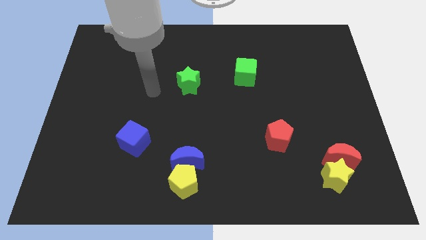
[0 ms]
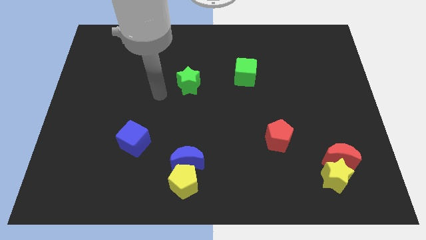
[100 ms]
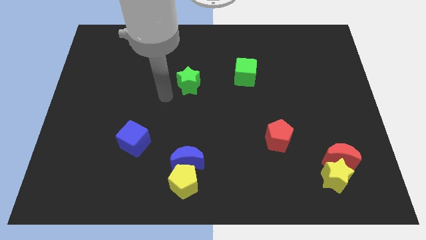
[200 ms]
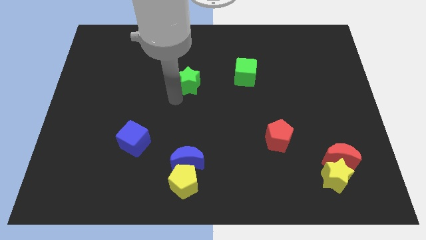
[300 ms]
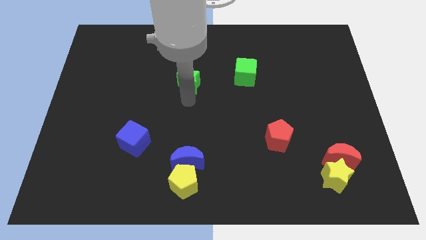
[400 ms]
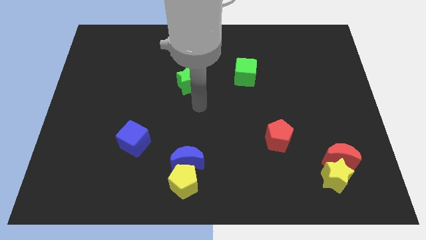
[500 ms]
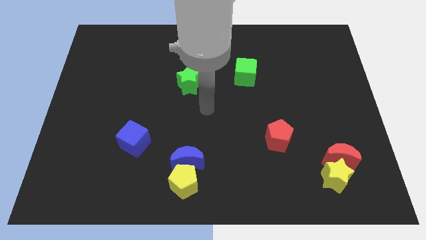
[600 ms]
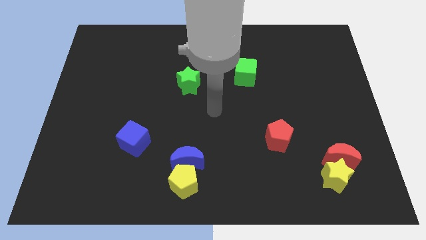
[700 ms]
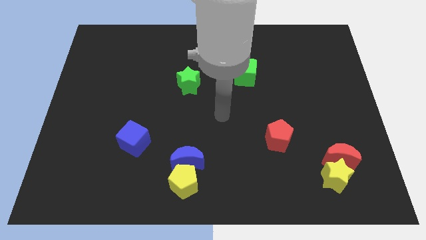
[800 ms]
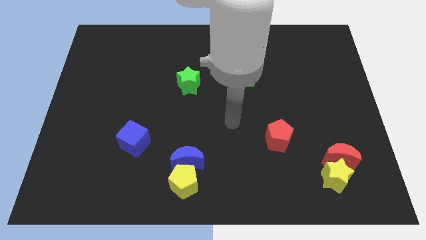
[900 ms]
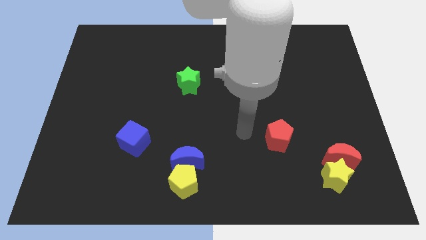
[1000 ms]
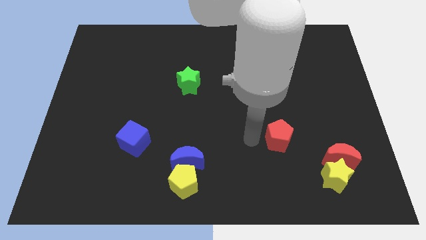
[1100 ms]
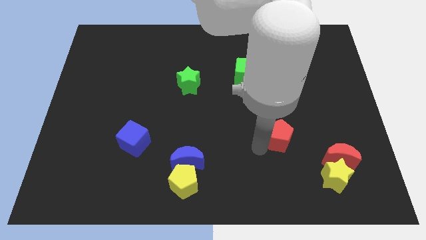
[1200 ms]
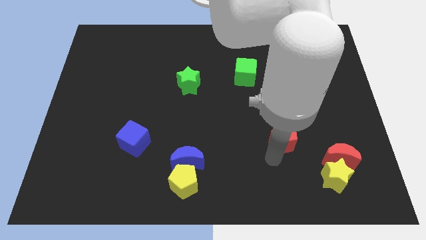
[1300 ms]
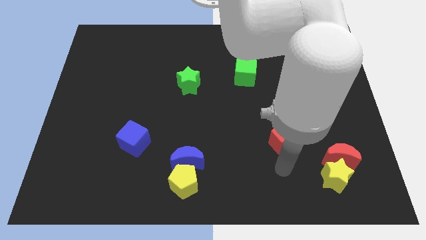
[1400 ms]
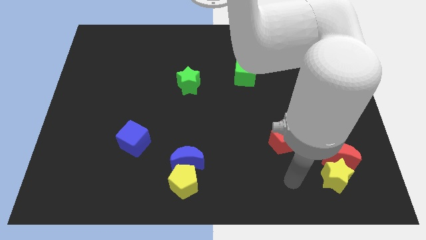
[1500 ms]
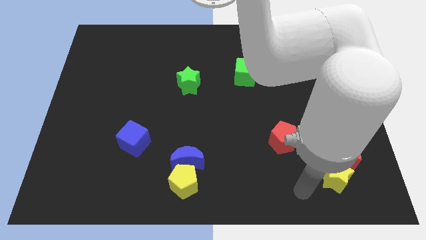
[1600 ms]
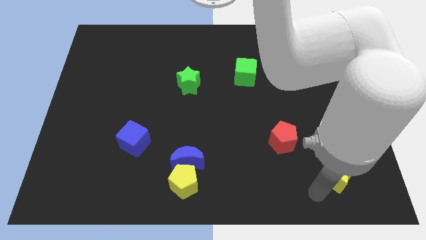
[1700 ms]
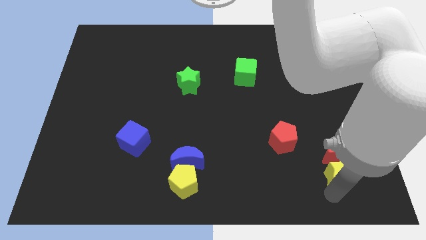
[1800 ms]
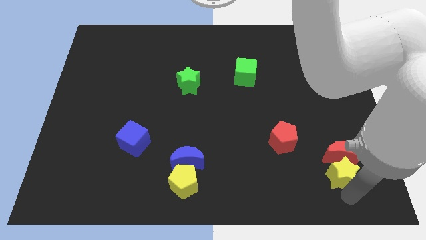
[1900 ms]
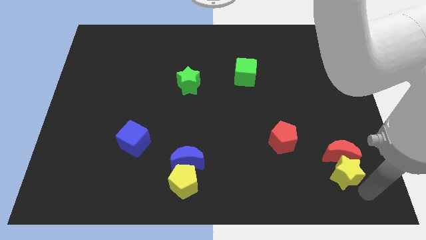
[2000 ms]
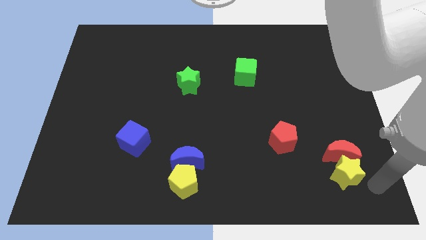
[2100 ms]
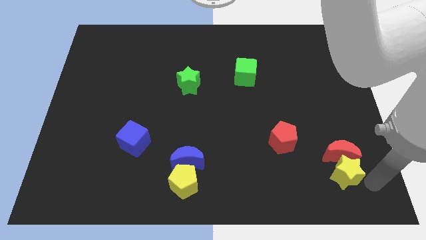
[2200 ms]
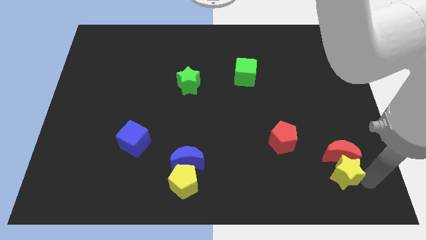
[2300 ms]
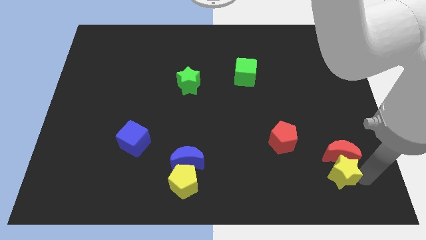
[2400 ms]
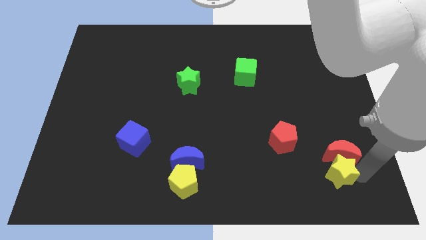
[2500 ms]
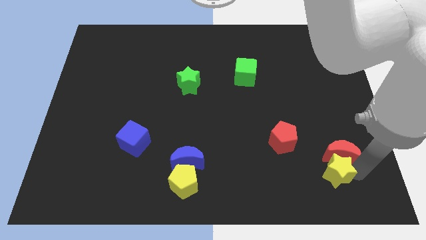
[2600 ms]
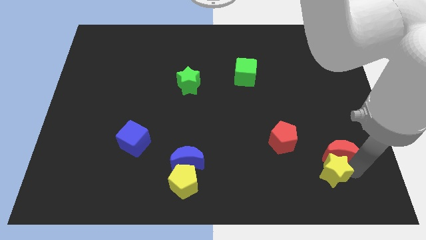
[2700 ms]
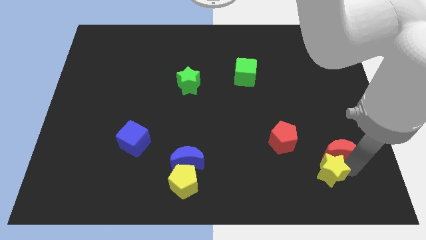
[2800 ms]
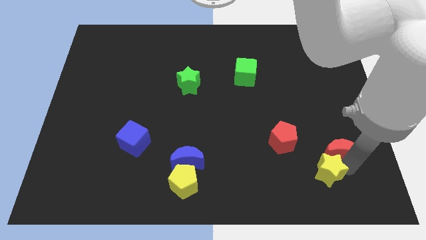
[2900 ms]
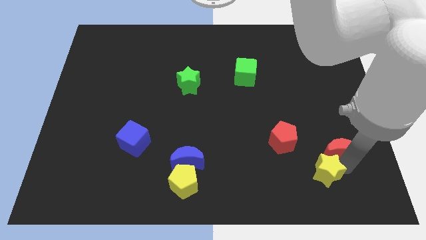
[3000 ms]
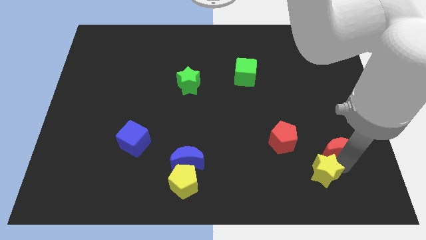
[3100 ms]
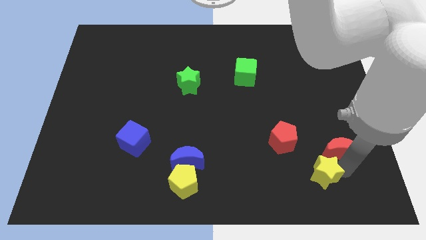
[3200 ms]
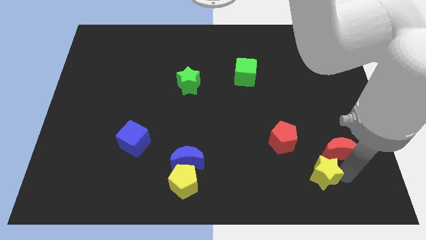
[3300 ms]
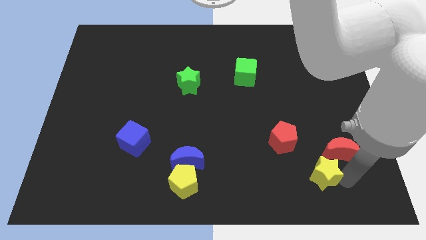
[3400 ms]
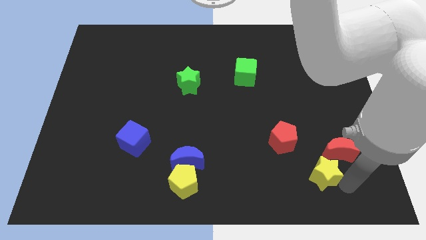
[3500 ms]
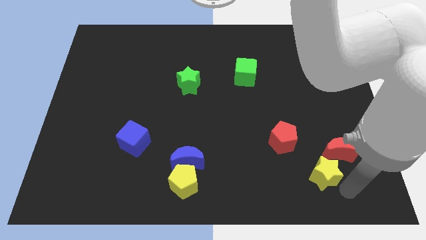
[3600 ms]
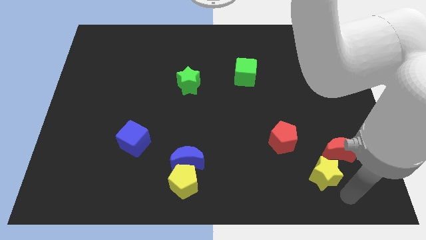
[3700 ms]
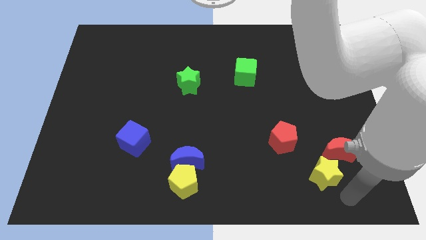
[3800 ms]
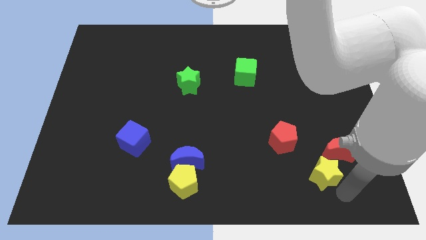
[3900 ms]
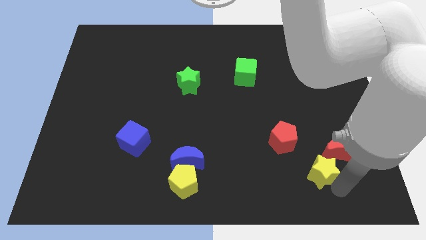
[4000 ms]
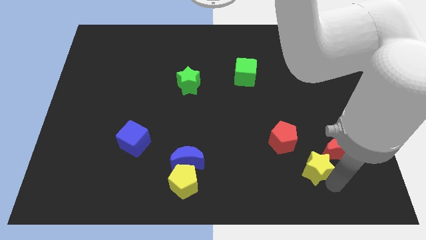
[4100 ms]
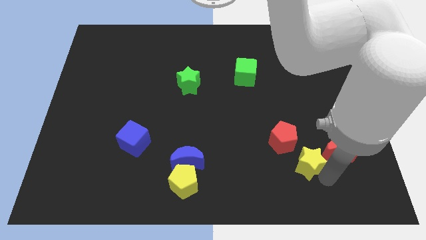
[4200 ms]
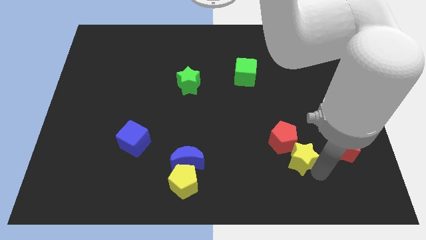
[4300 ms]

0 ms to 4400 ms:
slide the yellow star close to the red pentagon

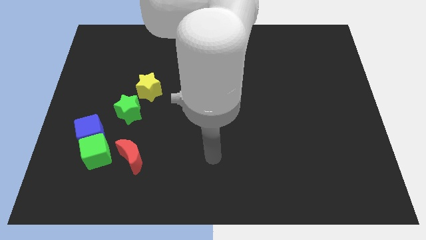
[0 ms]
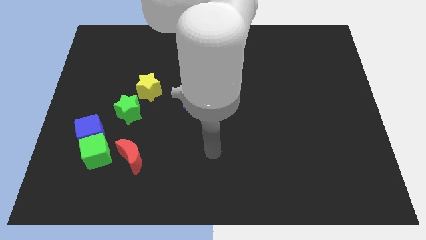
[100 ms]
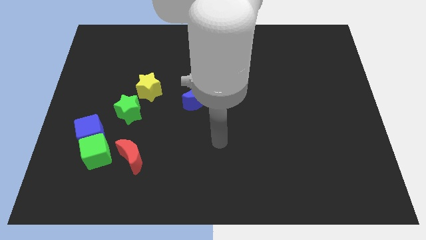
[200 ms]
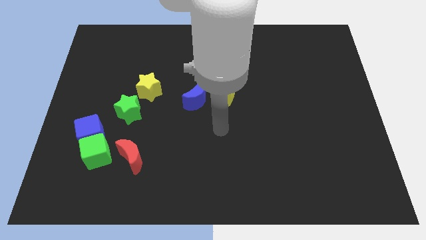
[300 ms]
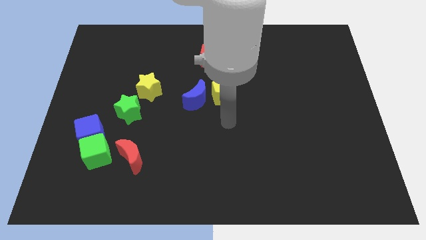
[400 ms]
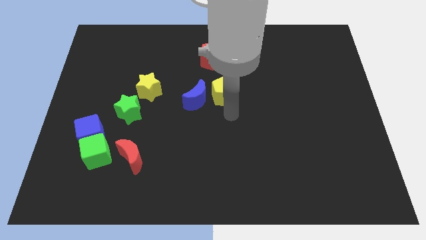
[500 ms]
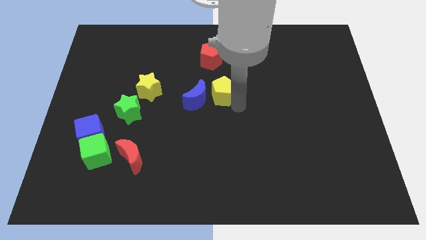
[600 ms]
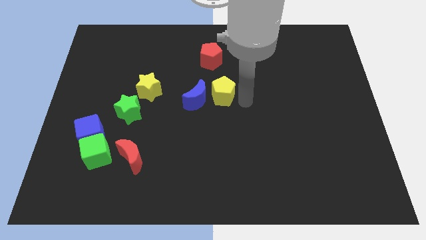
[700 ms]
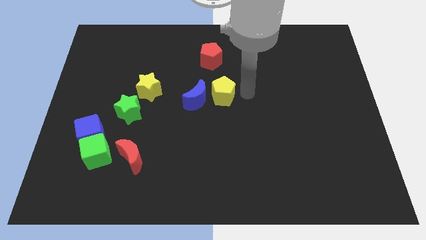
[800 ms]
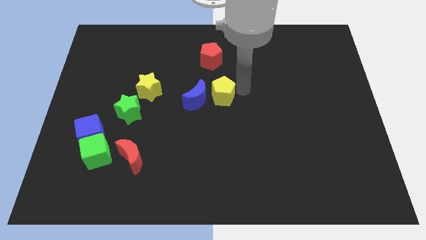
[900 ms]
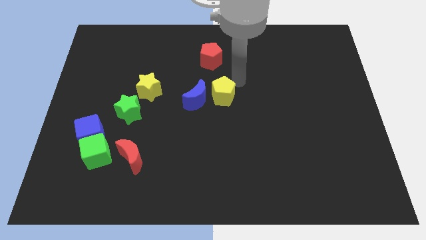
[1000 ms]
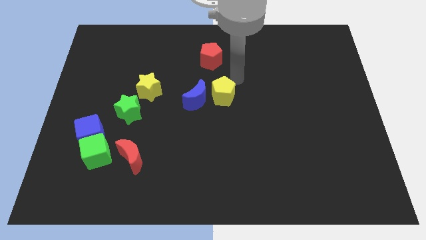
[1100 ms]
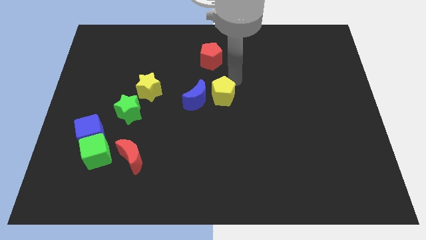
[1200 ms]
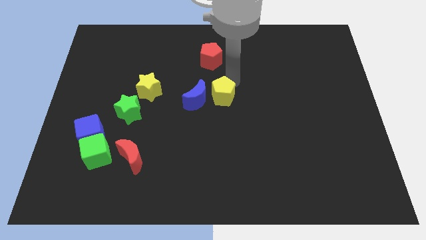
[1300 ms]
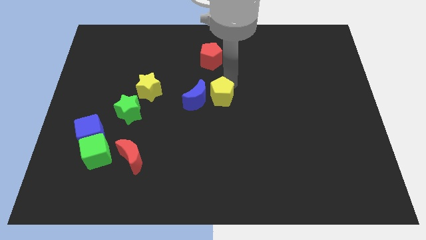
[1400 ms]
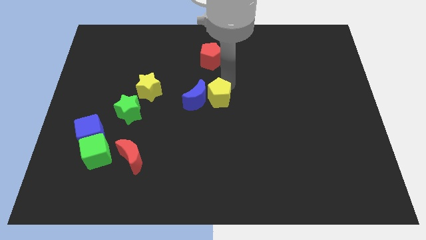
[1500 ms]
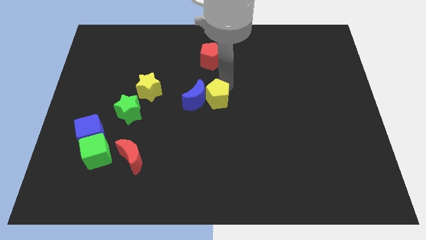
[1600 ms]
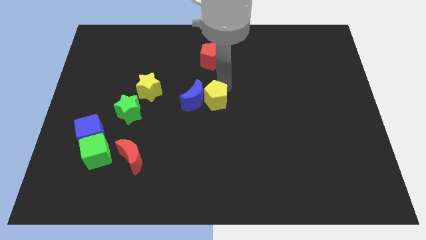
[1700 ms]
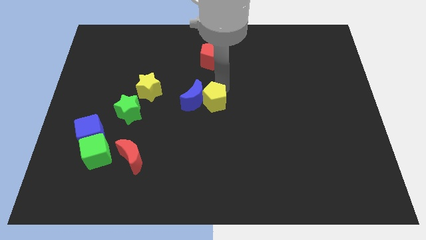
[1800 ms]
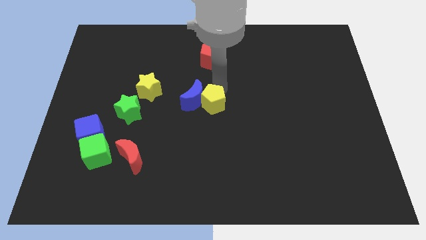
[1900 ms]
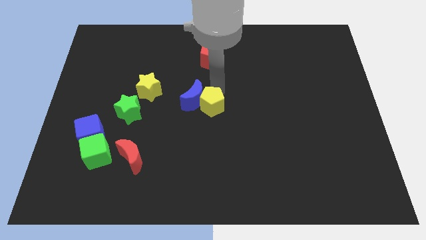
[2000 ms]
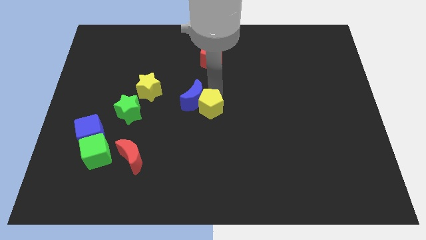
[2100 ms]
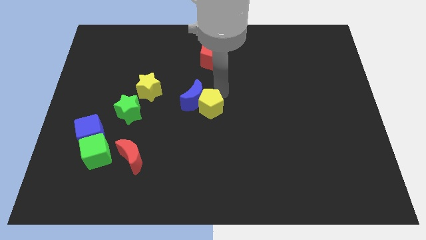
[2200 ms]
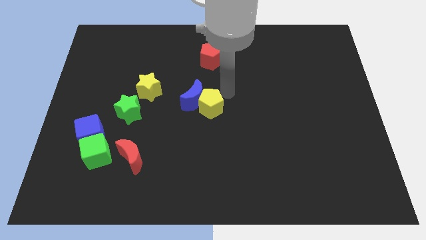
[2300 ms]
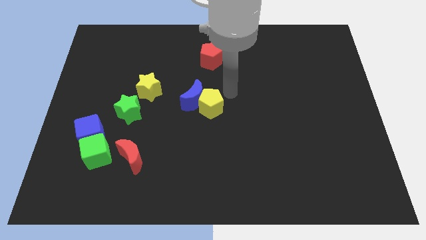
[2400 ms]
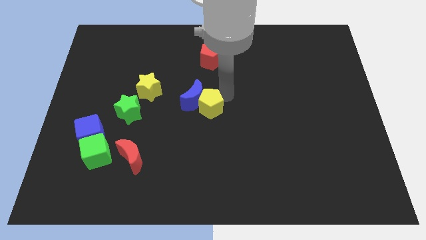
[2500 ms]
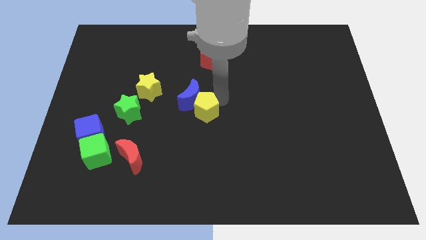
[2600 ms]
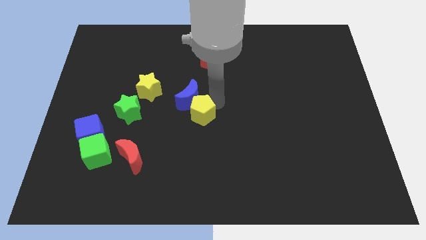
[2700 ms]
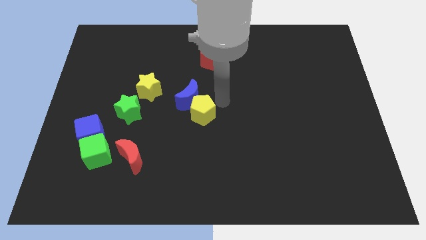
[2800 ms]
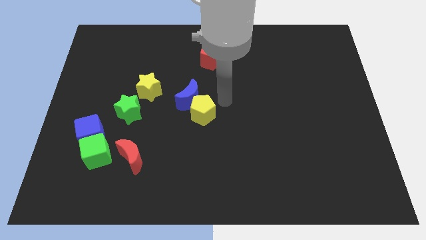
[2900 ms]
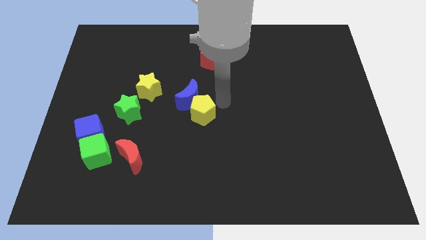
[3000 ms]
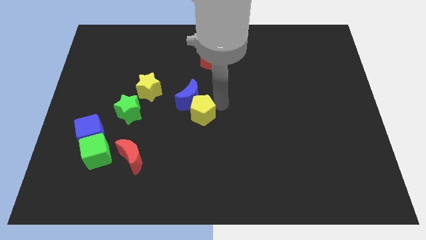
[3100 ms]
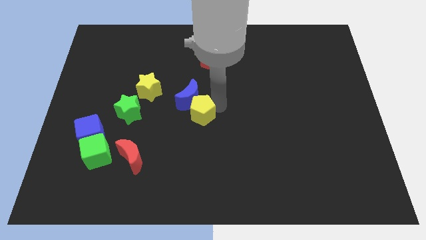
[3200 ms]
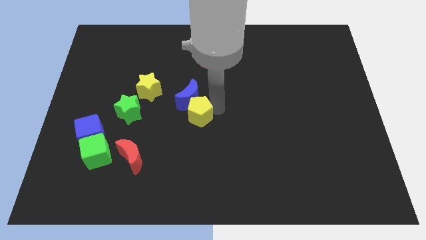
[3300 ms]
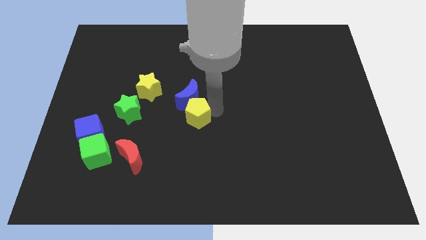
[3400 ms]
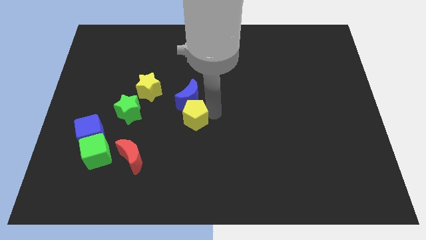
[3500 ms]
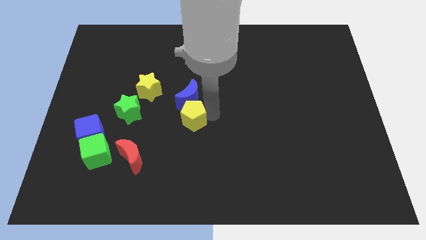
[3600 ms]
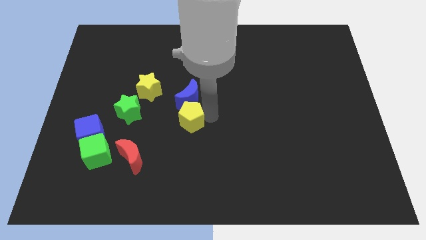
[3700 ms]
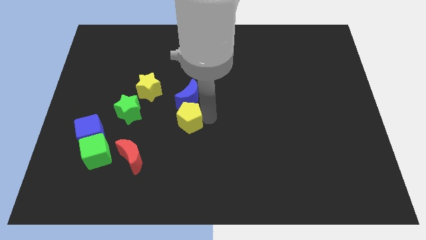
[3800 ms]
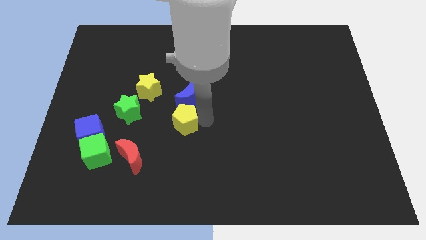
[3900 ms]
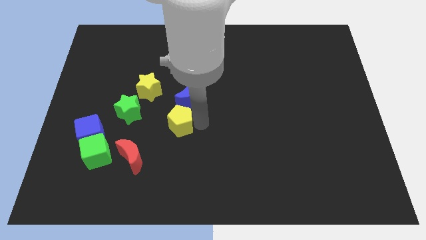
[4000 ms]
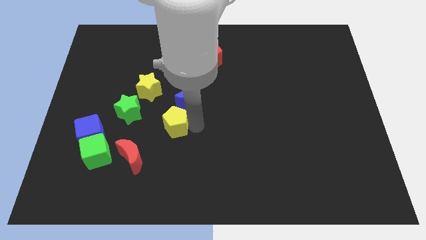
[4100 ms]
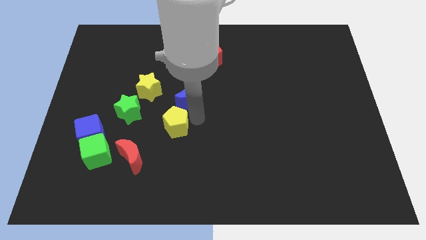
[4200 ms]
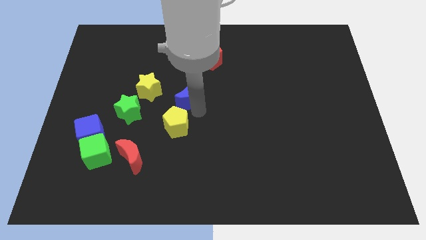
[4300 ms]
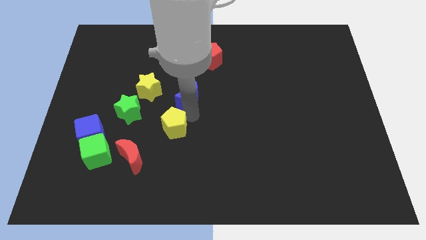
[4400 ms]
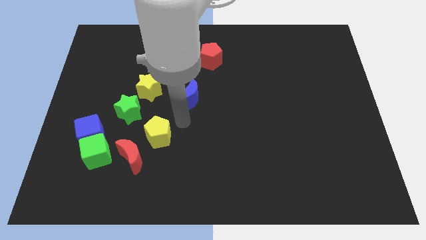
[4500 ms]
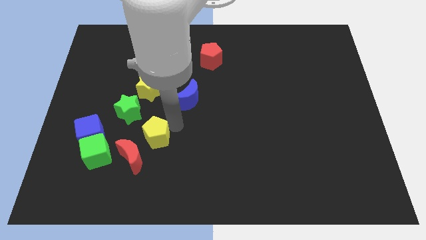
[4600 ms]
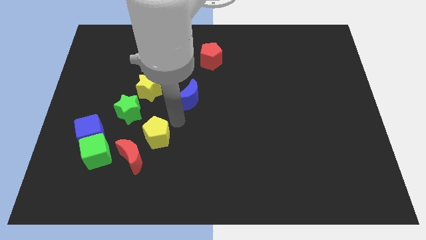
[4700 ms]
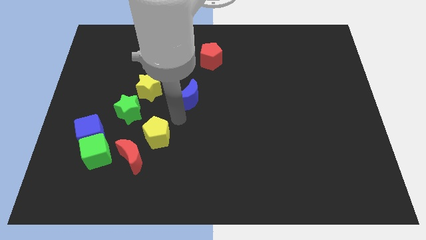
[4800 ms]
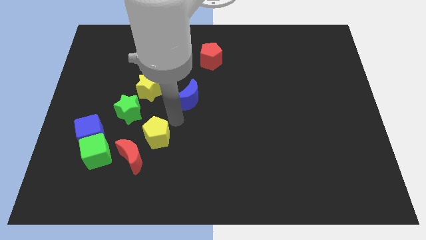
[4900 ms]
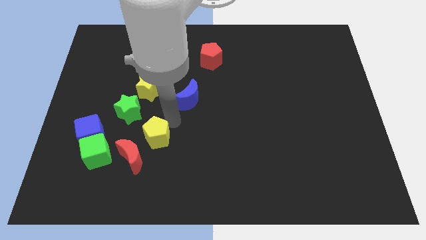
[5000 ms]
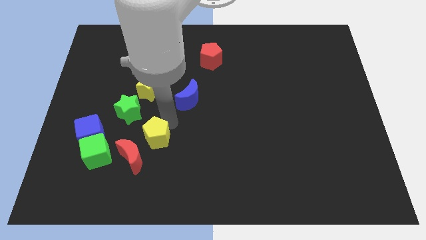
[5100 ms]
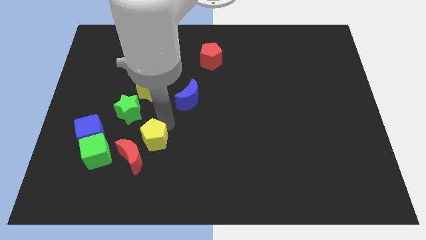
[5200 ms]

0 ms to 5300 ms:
push the yellow pentagon next to the red moon
